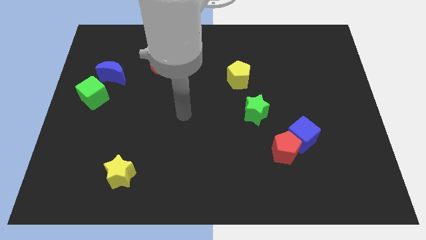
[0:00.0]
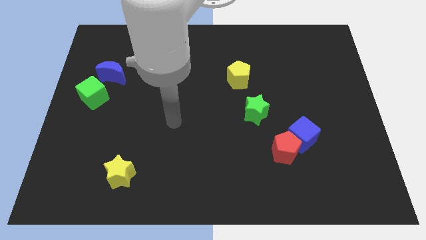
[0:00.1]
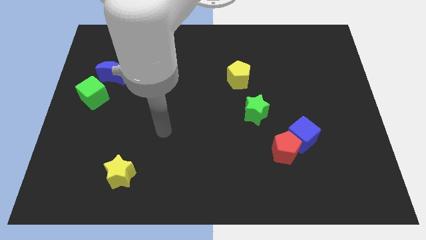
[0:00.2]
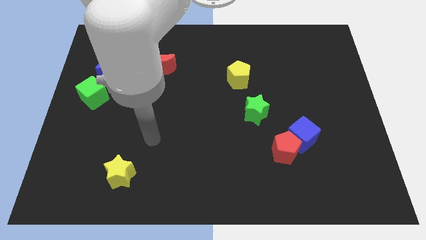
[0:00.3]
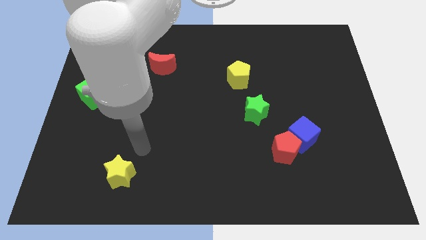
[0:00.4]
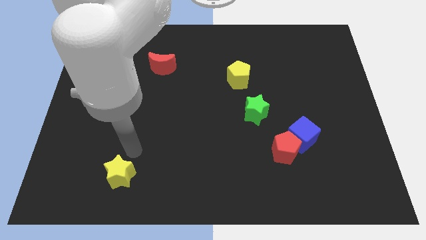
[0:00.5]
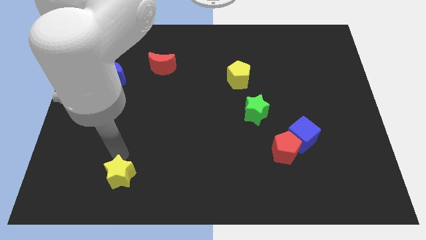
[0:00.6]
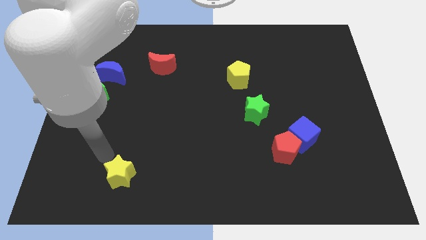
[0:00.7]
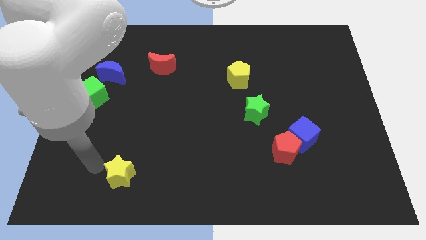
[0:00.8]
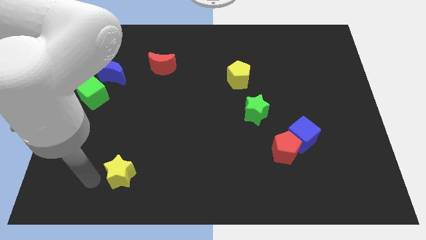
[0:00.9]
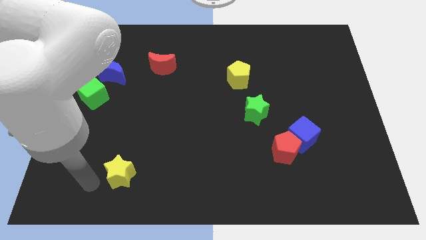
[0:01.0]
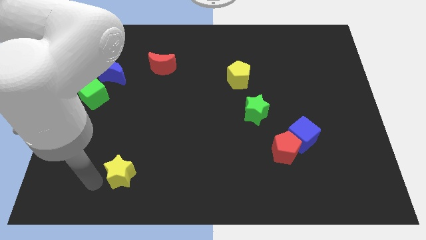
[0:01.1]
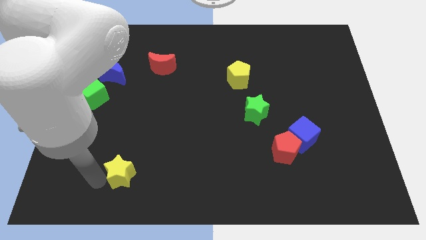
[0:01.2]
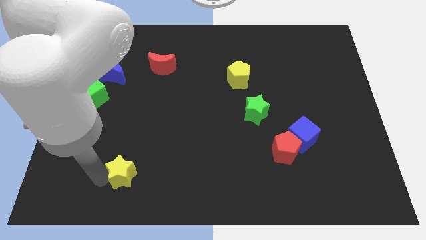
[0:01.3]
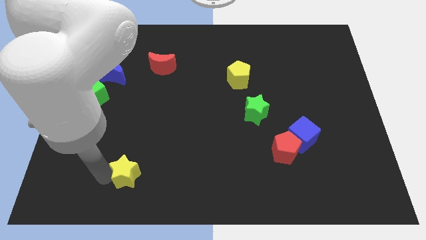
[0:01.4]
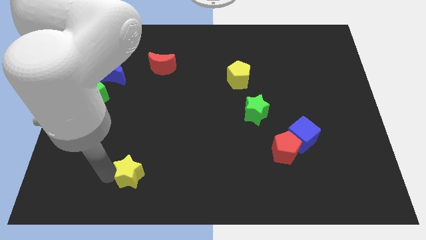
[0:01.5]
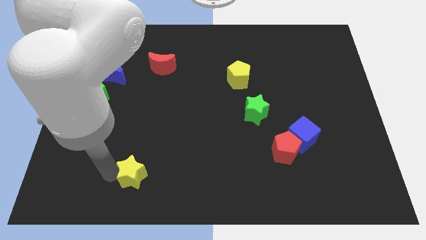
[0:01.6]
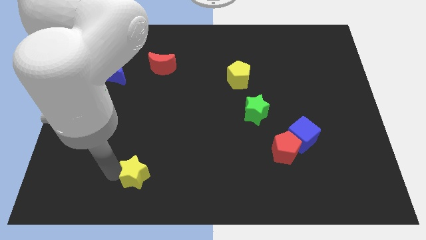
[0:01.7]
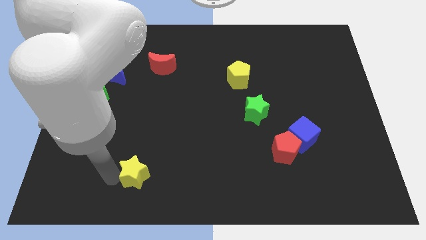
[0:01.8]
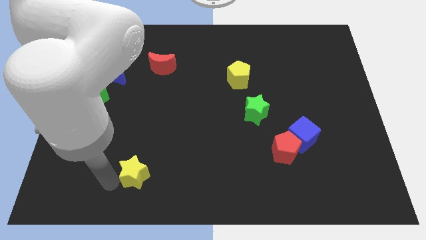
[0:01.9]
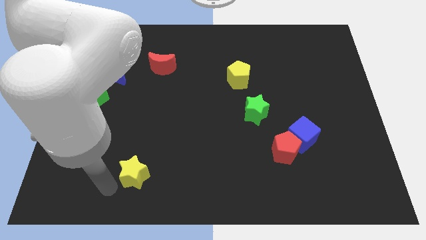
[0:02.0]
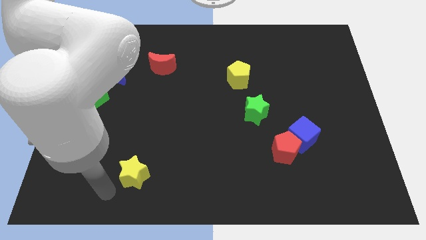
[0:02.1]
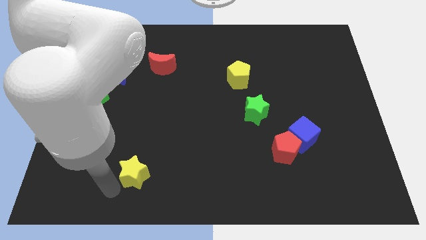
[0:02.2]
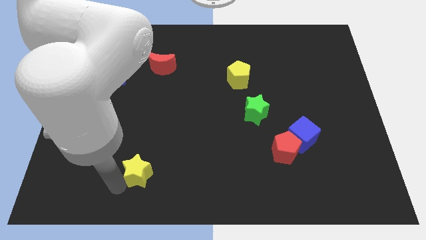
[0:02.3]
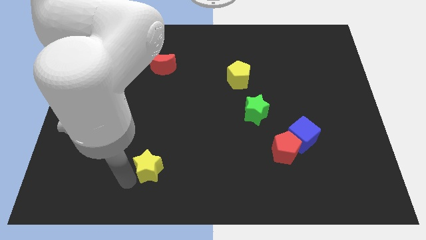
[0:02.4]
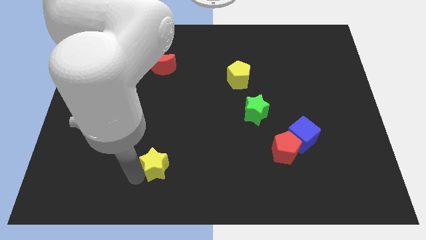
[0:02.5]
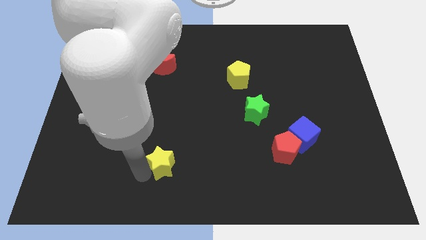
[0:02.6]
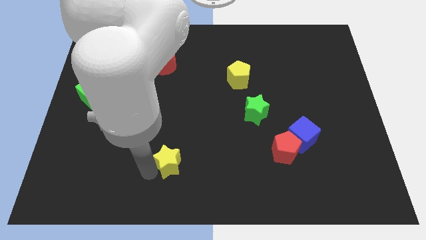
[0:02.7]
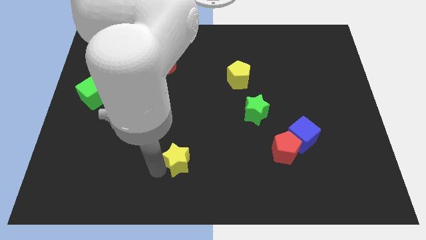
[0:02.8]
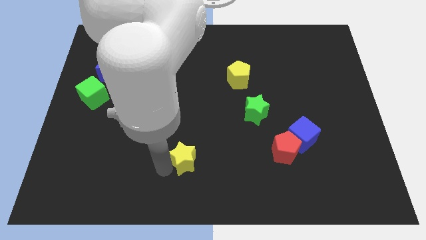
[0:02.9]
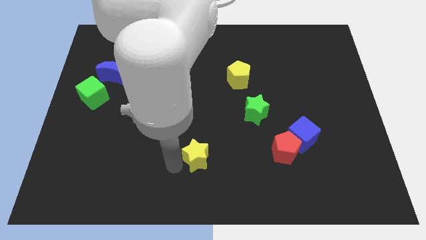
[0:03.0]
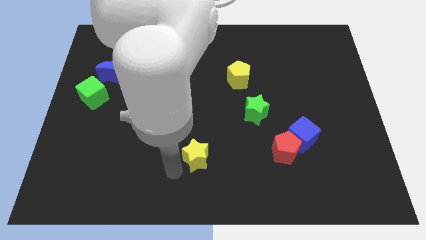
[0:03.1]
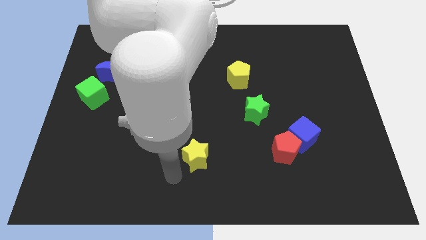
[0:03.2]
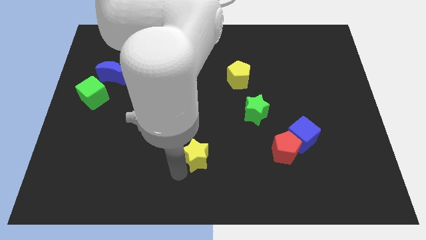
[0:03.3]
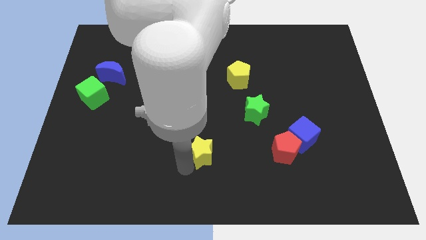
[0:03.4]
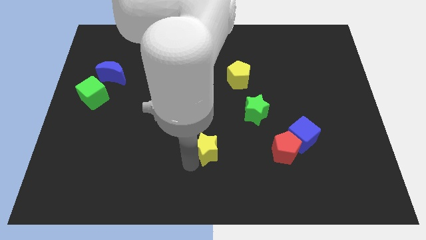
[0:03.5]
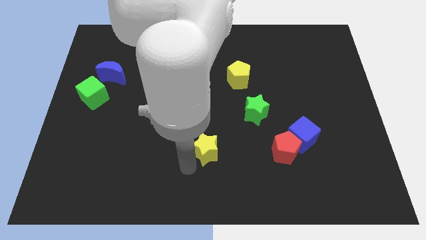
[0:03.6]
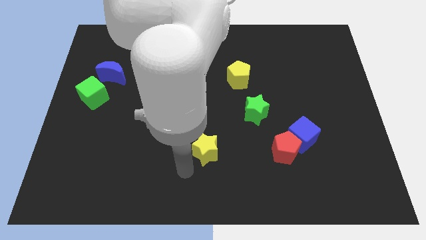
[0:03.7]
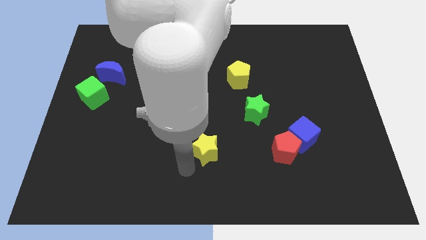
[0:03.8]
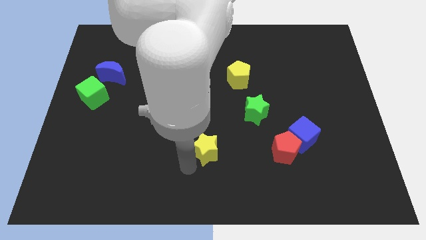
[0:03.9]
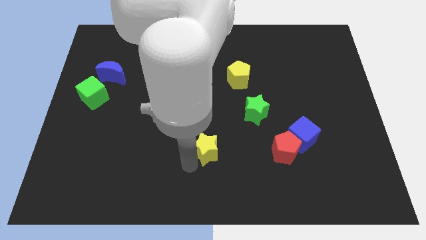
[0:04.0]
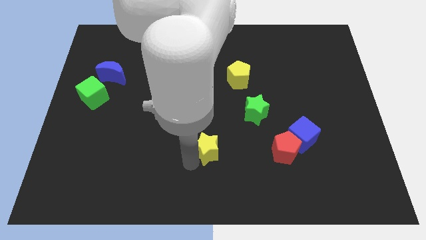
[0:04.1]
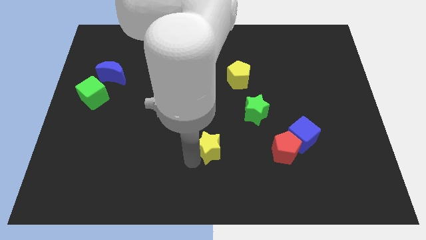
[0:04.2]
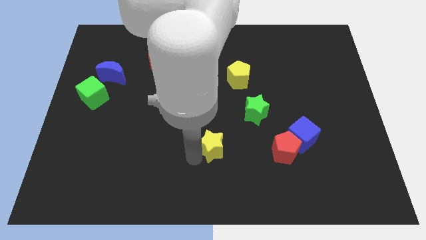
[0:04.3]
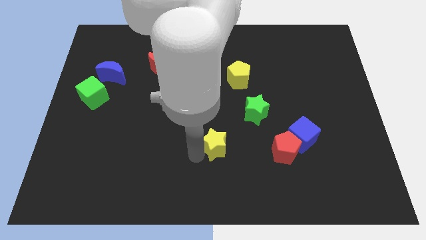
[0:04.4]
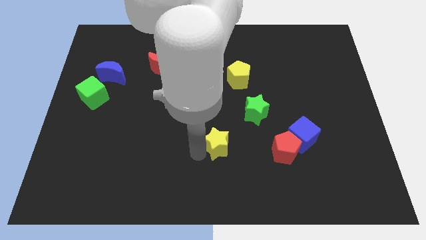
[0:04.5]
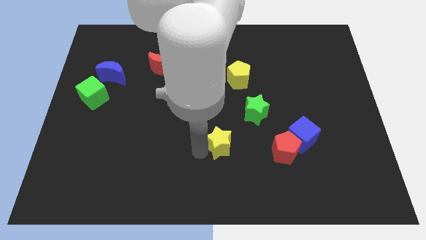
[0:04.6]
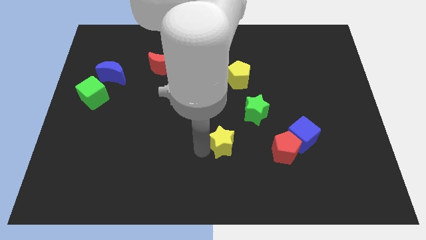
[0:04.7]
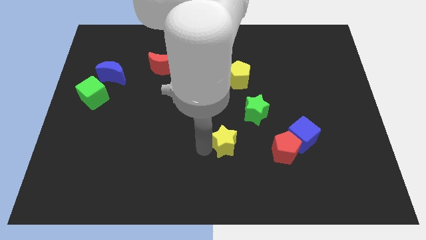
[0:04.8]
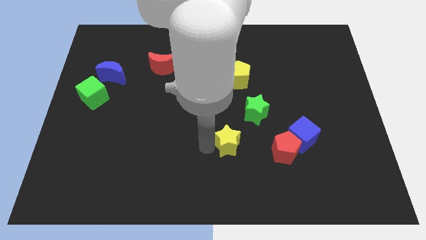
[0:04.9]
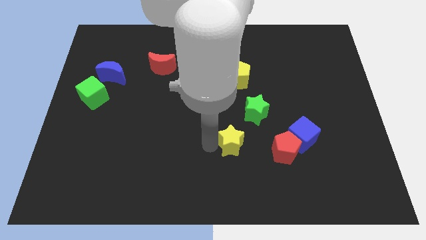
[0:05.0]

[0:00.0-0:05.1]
move the yellow star just left of the blue cube

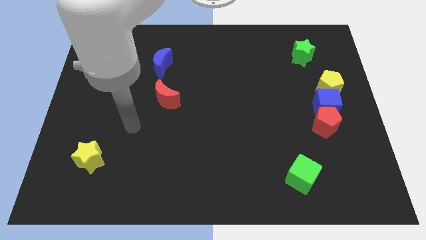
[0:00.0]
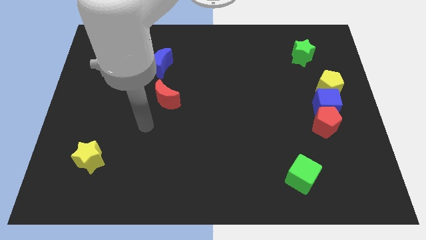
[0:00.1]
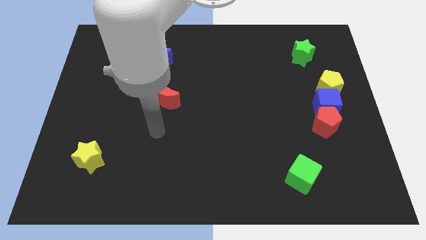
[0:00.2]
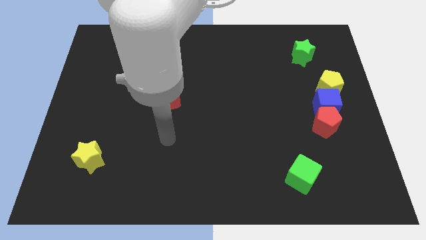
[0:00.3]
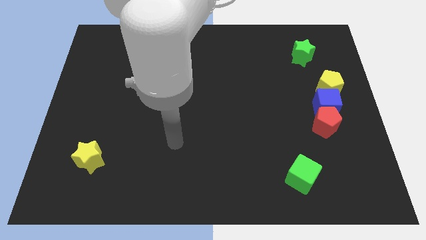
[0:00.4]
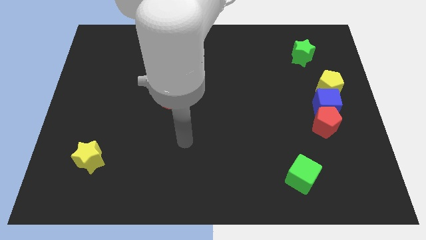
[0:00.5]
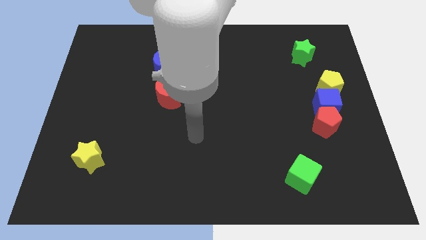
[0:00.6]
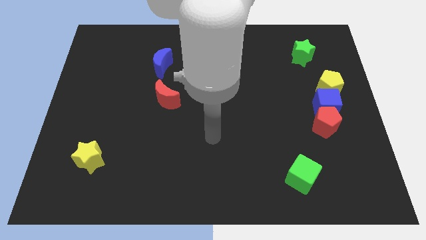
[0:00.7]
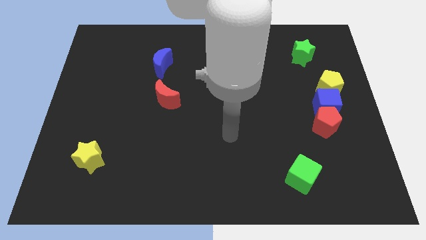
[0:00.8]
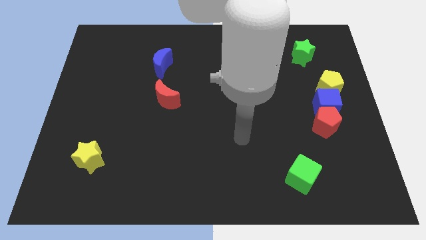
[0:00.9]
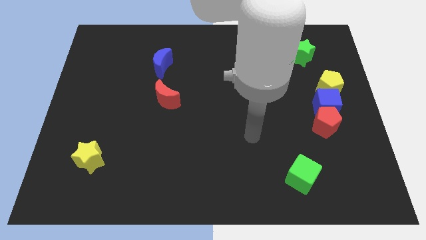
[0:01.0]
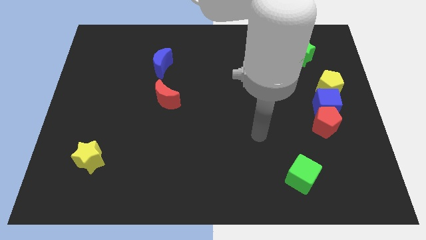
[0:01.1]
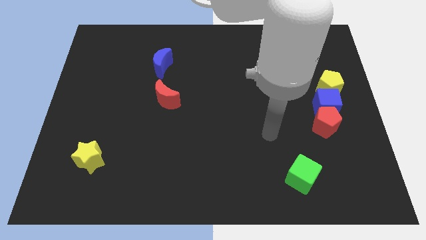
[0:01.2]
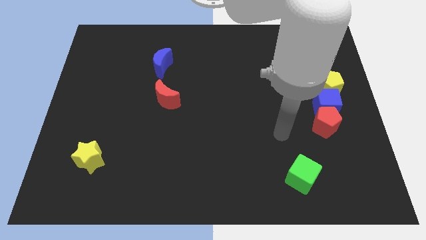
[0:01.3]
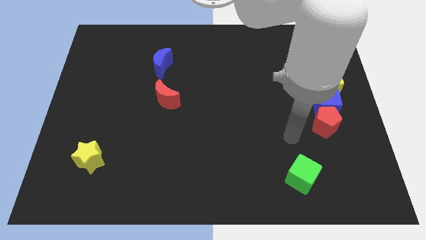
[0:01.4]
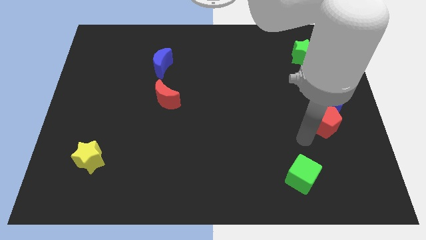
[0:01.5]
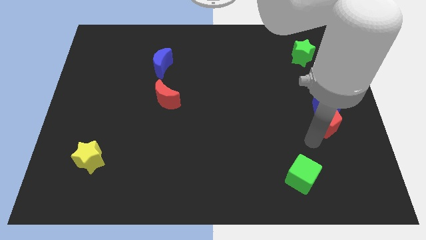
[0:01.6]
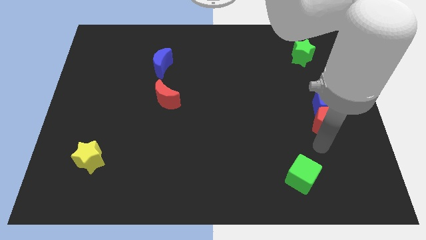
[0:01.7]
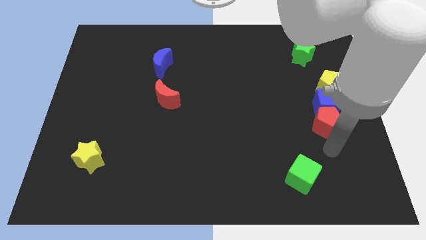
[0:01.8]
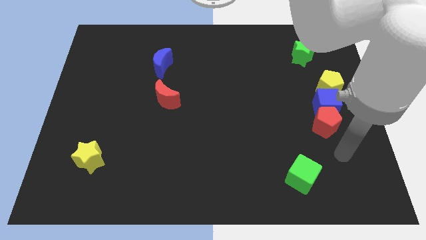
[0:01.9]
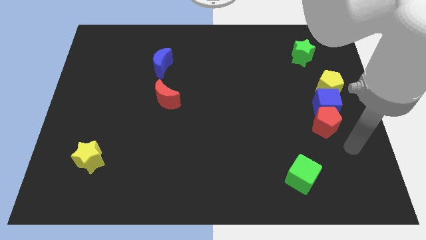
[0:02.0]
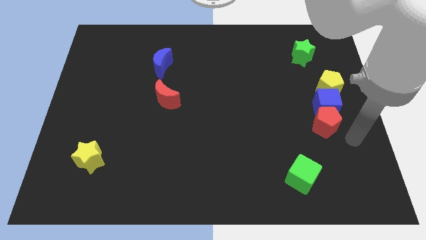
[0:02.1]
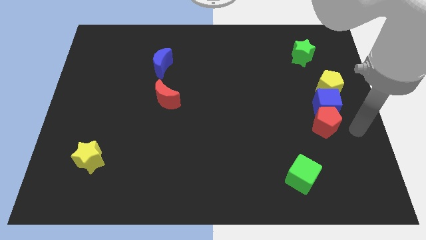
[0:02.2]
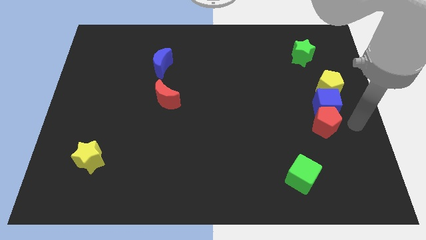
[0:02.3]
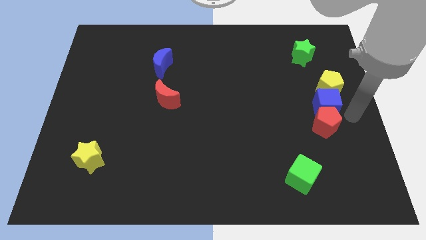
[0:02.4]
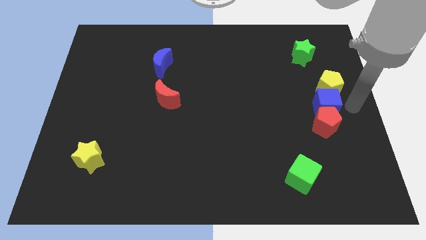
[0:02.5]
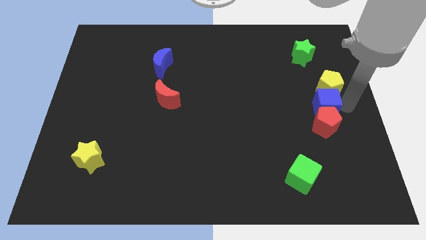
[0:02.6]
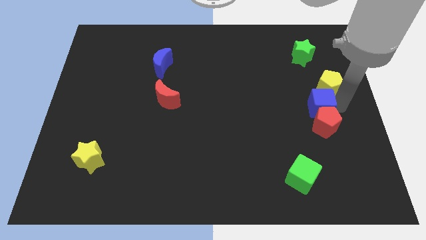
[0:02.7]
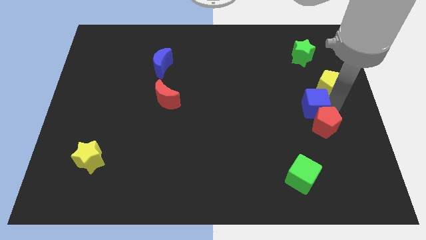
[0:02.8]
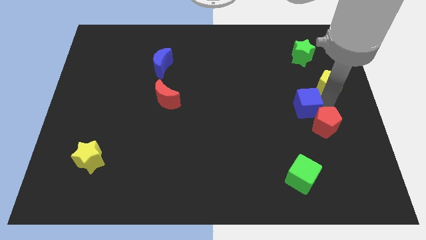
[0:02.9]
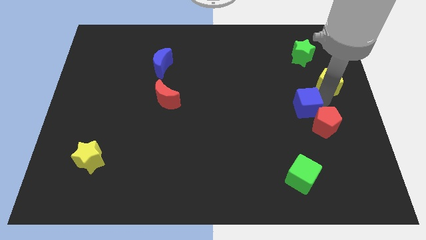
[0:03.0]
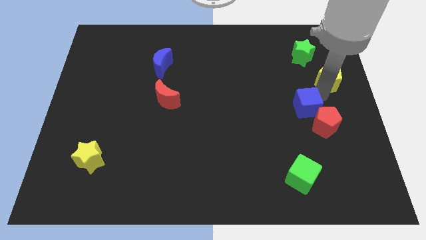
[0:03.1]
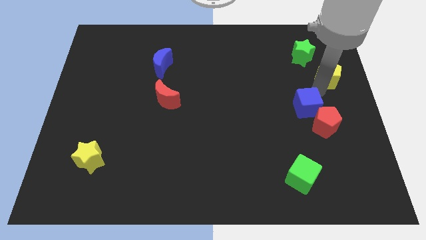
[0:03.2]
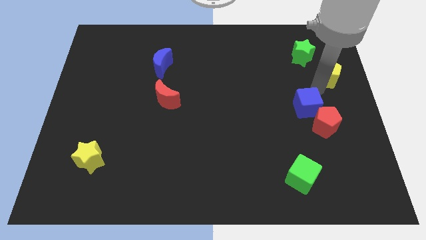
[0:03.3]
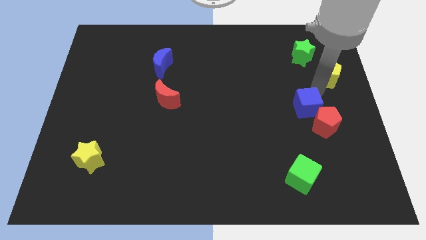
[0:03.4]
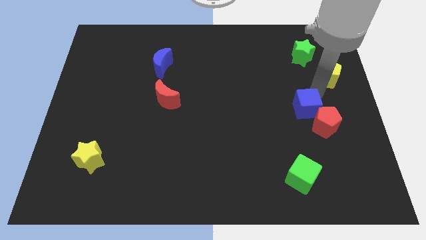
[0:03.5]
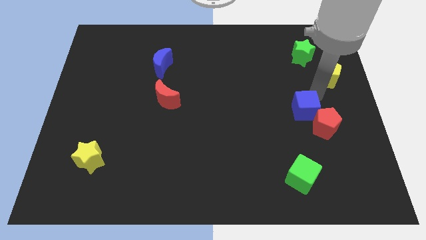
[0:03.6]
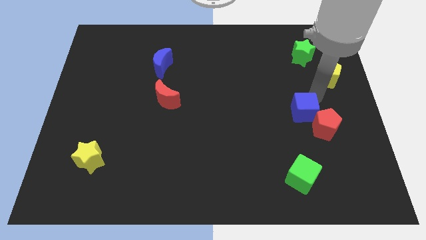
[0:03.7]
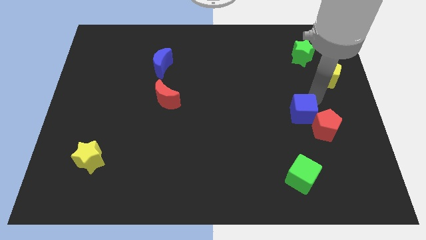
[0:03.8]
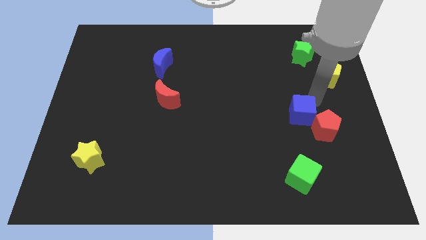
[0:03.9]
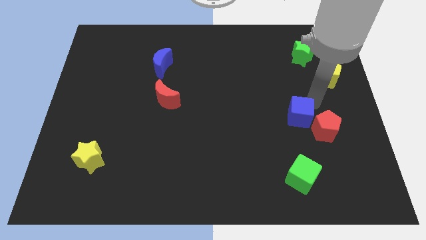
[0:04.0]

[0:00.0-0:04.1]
push the blue cube to the top of the green cube
